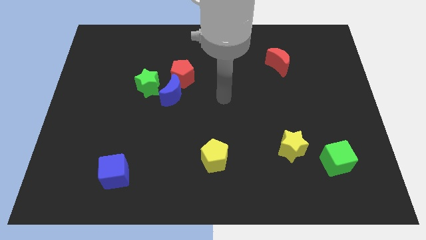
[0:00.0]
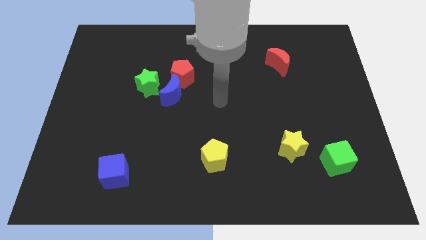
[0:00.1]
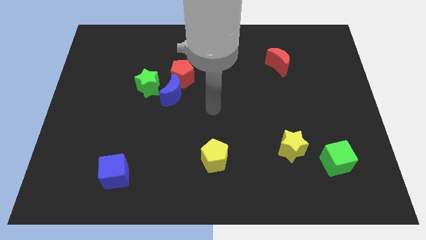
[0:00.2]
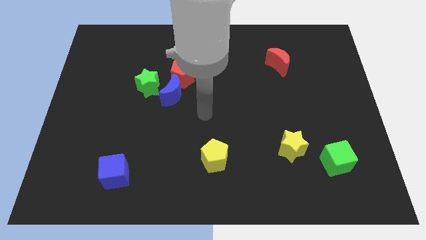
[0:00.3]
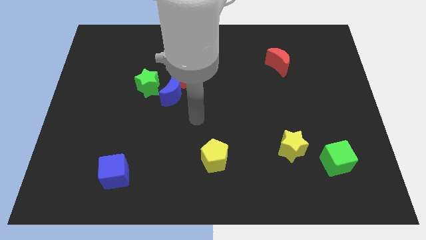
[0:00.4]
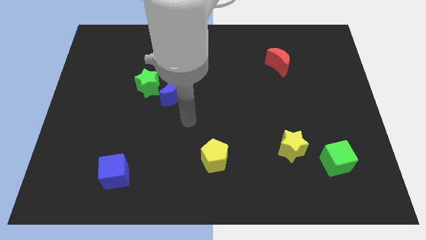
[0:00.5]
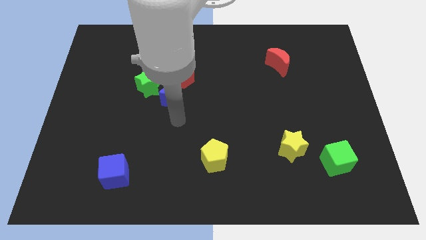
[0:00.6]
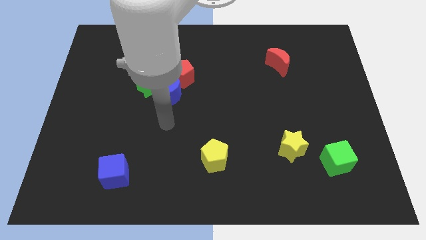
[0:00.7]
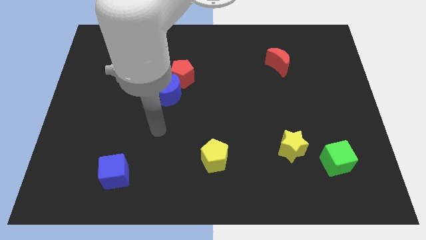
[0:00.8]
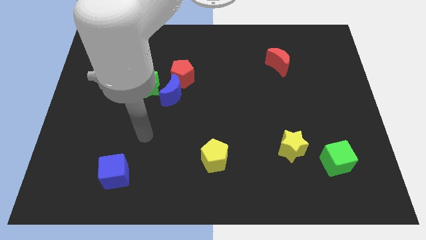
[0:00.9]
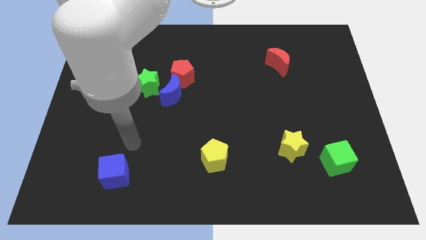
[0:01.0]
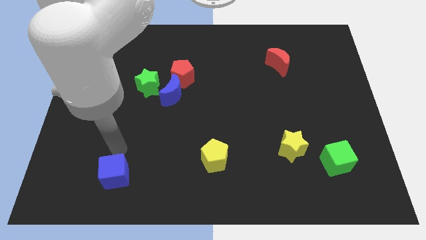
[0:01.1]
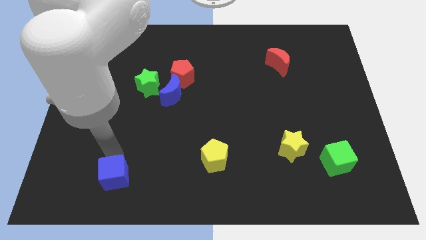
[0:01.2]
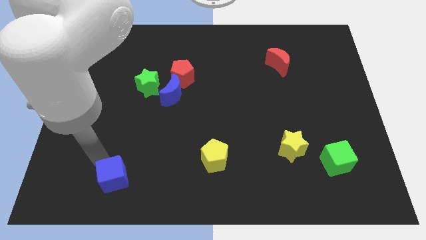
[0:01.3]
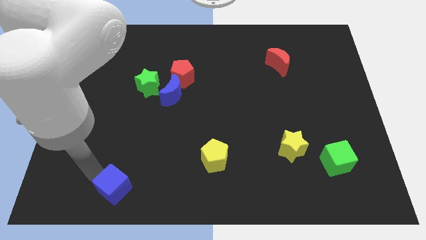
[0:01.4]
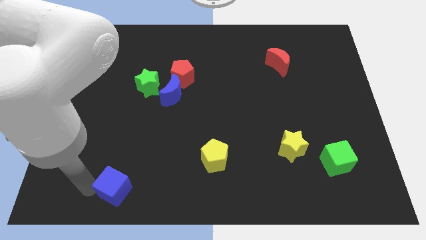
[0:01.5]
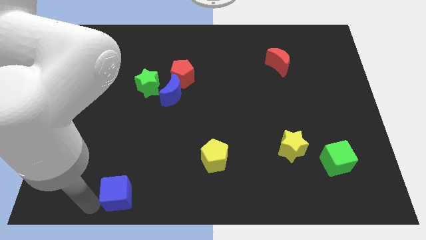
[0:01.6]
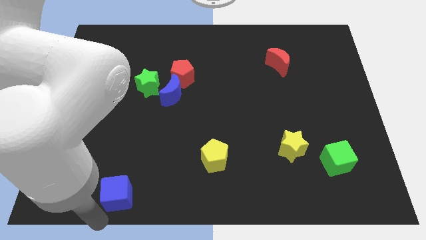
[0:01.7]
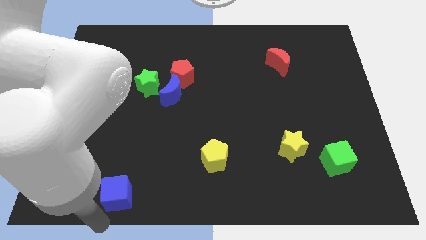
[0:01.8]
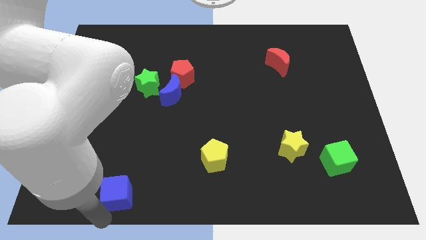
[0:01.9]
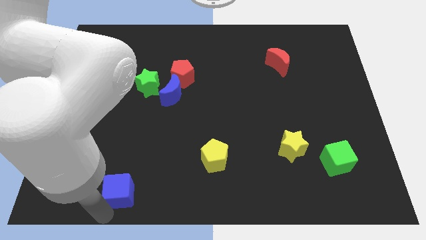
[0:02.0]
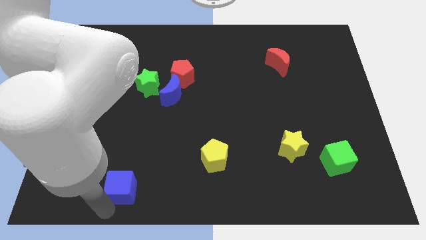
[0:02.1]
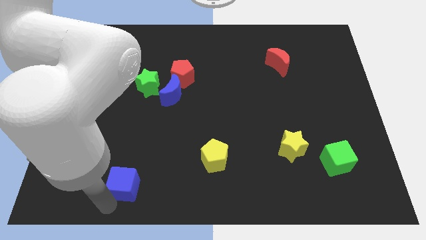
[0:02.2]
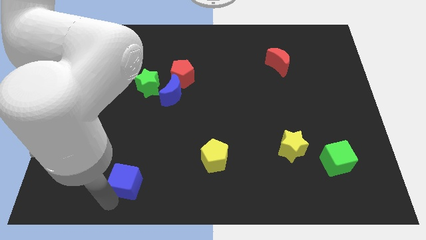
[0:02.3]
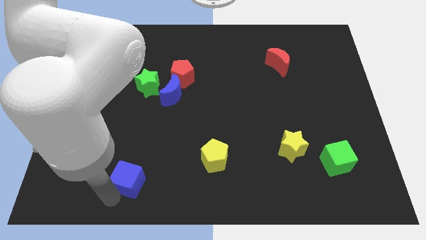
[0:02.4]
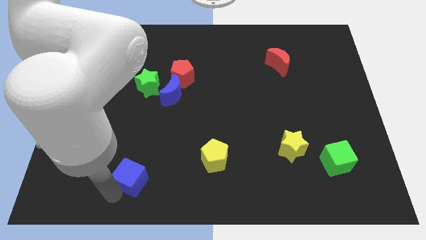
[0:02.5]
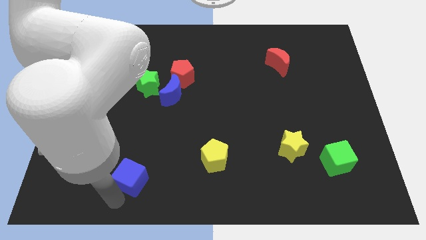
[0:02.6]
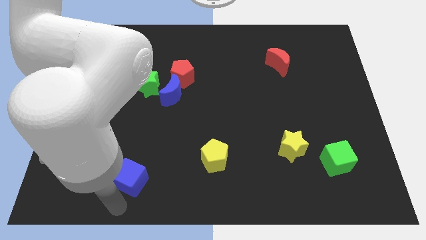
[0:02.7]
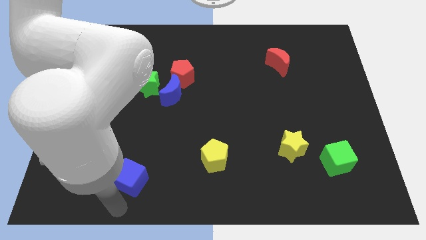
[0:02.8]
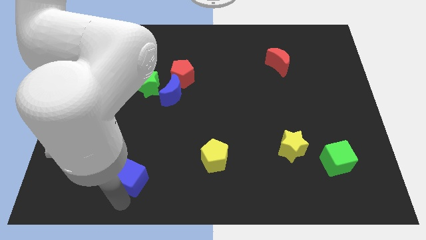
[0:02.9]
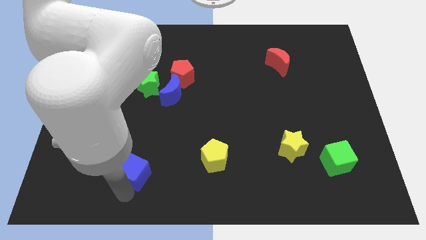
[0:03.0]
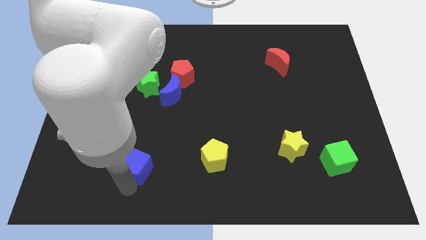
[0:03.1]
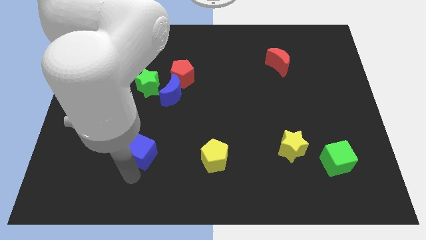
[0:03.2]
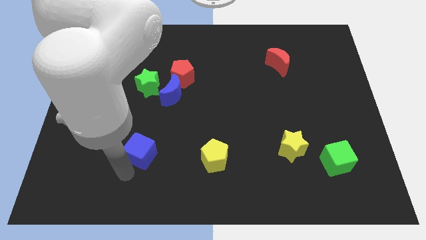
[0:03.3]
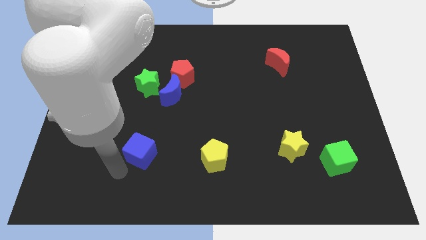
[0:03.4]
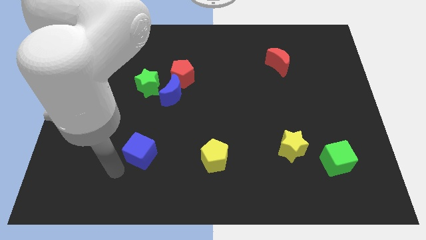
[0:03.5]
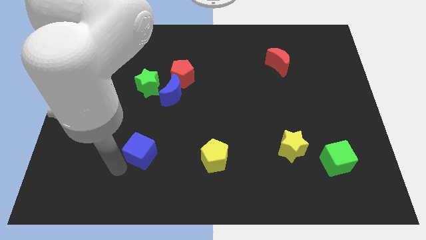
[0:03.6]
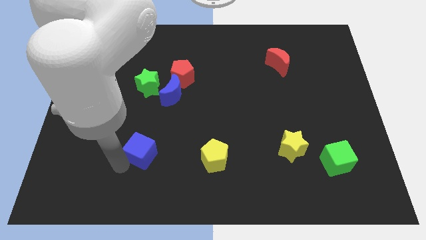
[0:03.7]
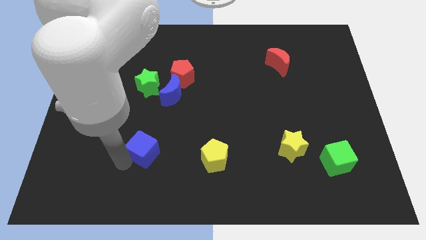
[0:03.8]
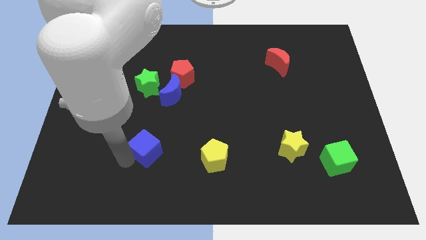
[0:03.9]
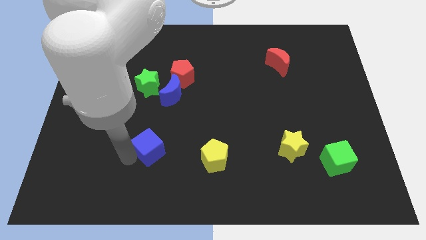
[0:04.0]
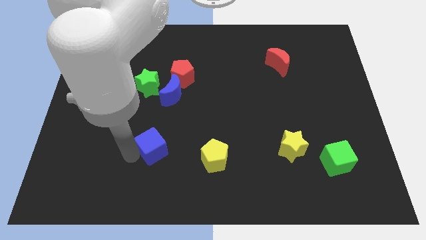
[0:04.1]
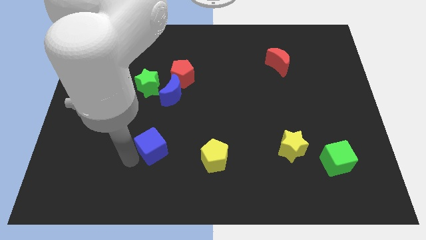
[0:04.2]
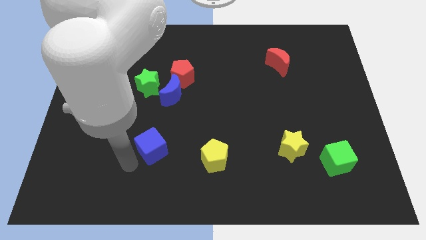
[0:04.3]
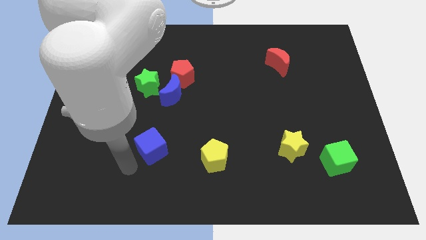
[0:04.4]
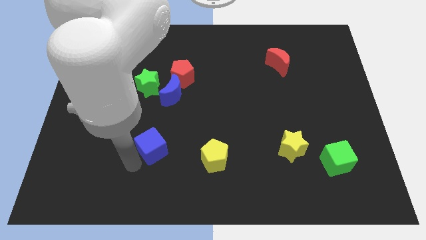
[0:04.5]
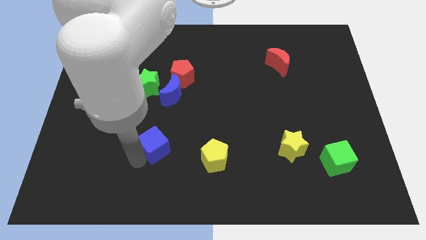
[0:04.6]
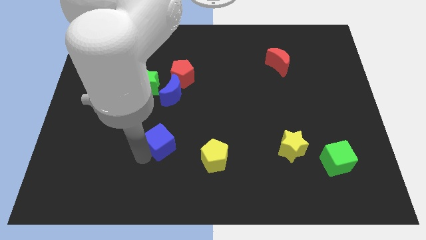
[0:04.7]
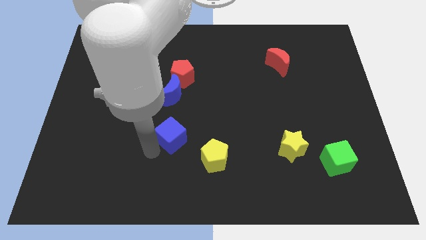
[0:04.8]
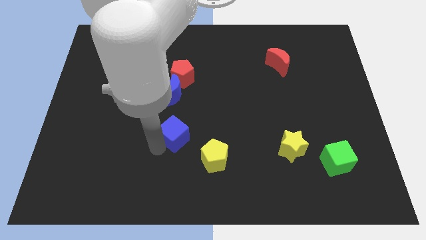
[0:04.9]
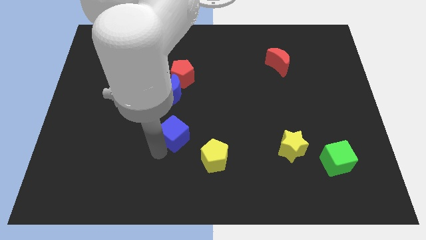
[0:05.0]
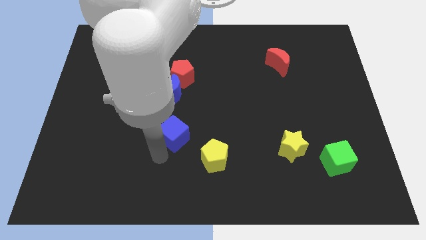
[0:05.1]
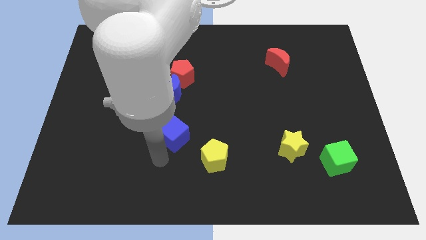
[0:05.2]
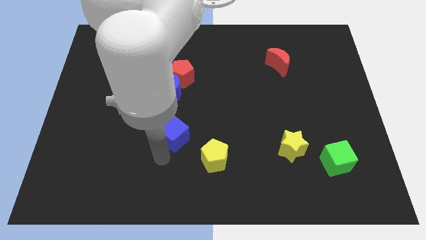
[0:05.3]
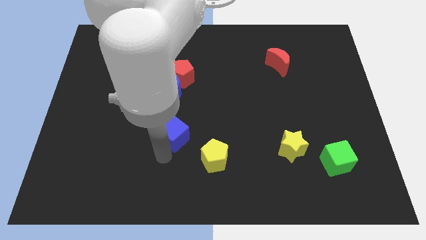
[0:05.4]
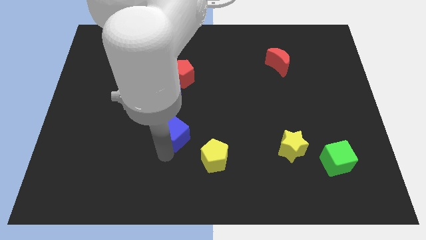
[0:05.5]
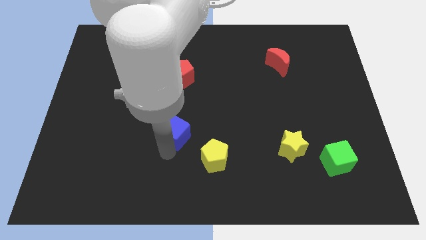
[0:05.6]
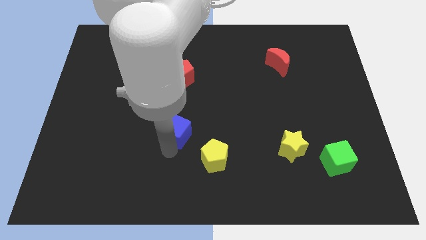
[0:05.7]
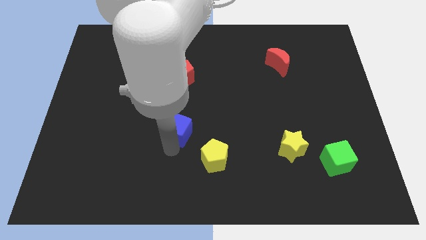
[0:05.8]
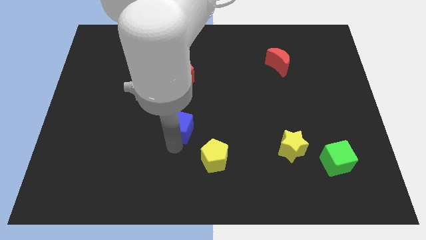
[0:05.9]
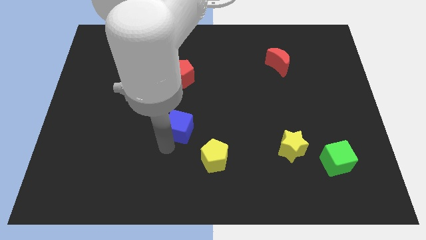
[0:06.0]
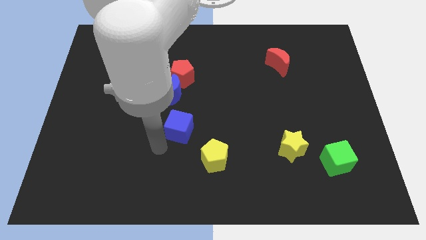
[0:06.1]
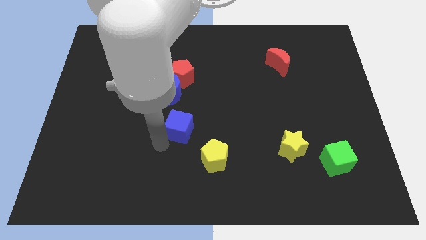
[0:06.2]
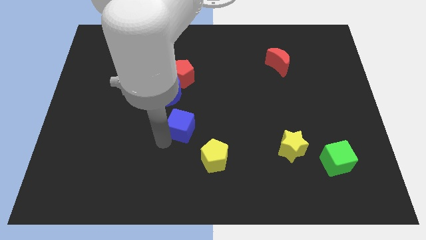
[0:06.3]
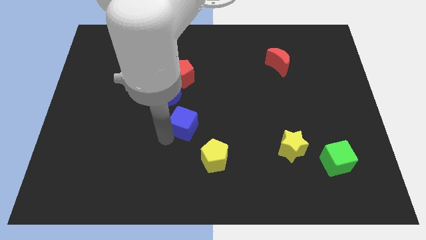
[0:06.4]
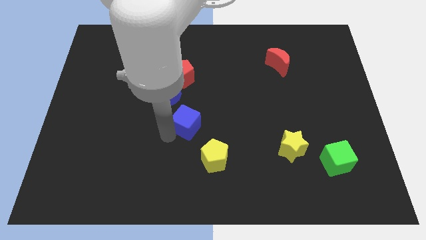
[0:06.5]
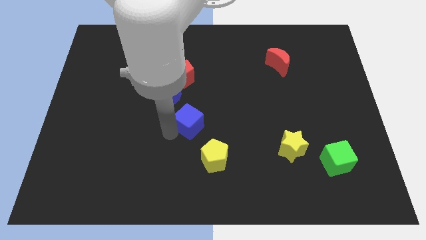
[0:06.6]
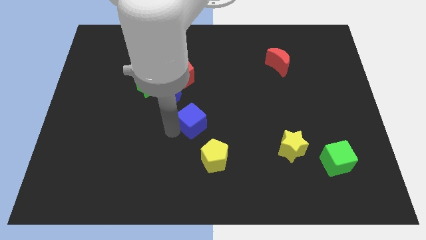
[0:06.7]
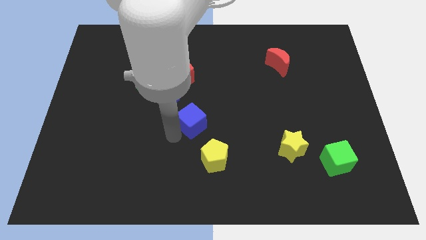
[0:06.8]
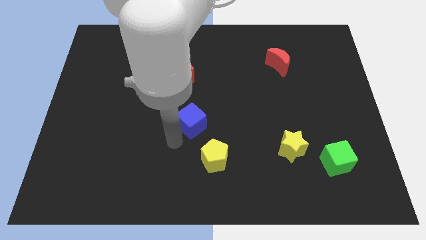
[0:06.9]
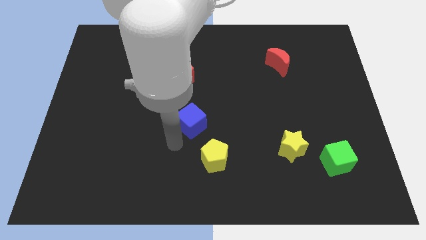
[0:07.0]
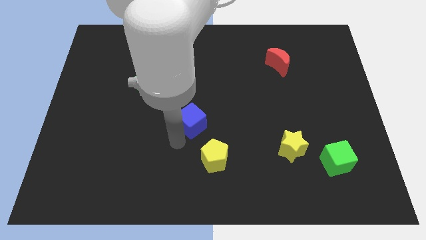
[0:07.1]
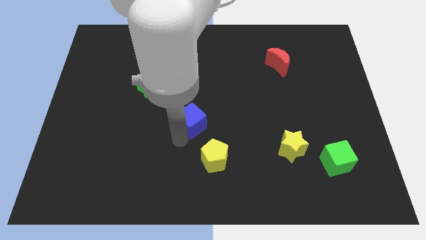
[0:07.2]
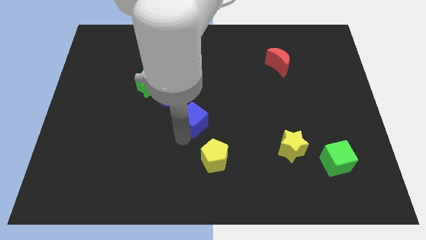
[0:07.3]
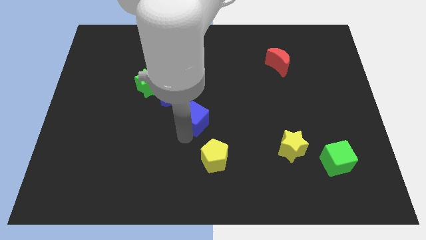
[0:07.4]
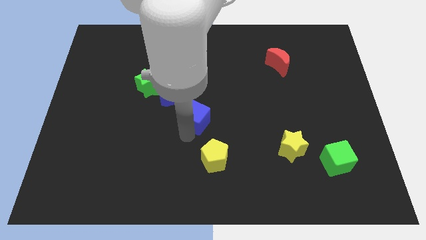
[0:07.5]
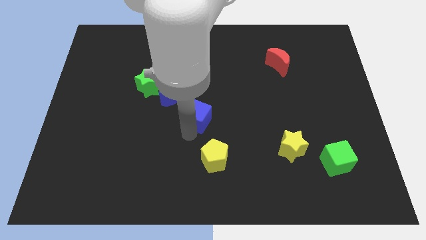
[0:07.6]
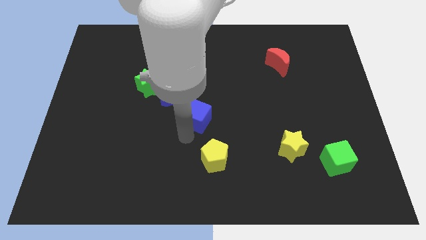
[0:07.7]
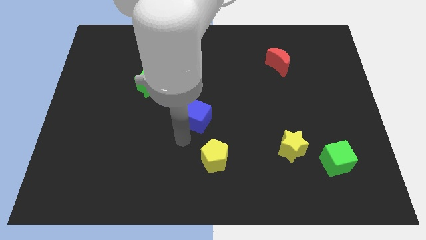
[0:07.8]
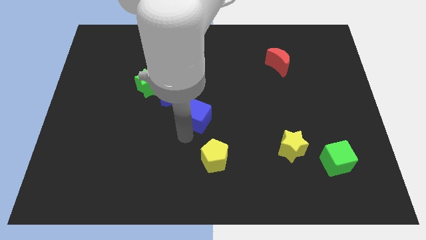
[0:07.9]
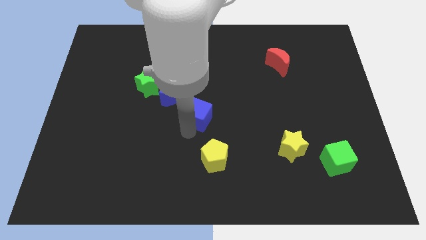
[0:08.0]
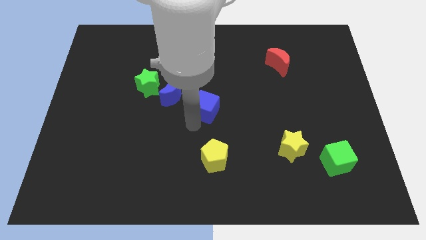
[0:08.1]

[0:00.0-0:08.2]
slide the blue cube to the right of the blue moon
